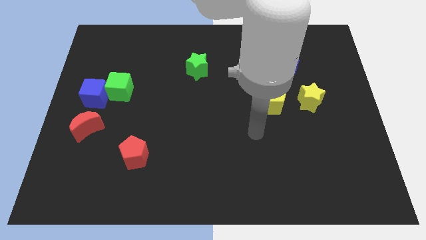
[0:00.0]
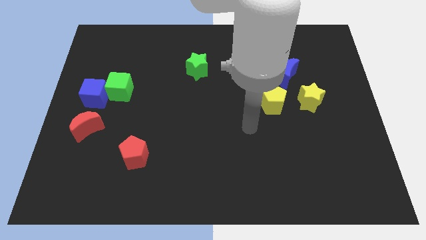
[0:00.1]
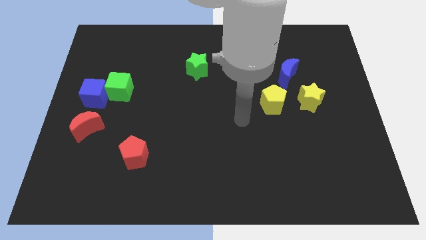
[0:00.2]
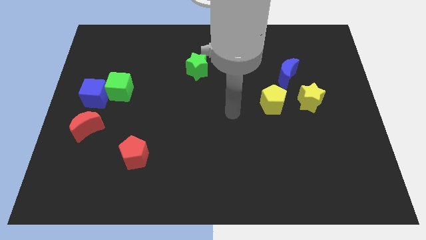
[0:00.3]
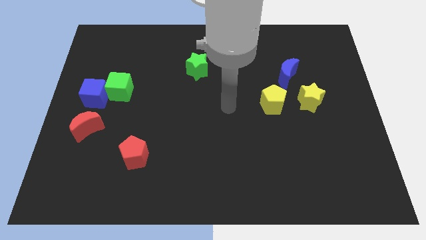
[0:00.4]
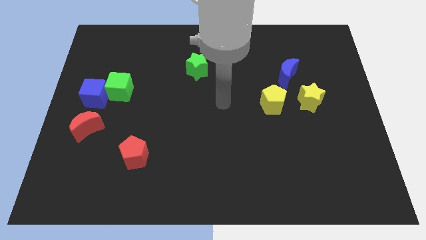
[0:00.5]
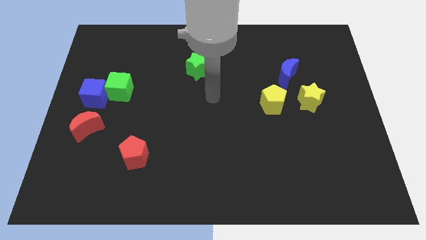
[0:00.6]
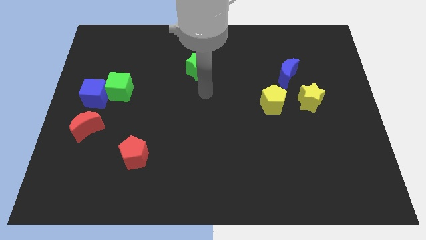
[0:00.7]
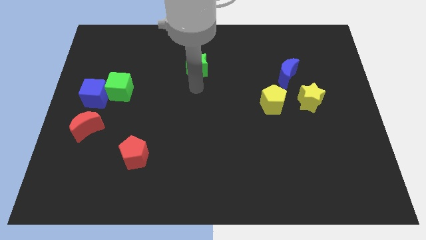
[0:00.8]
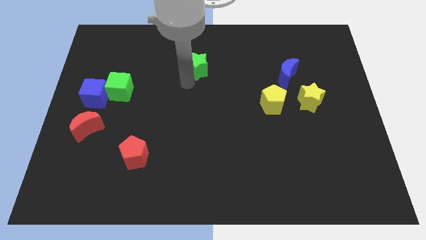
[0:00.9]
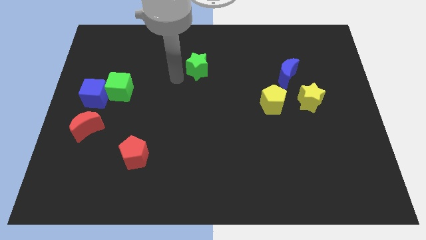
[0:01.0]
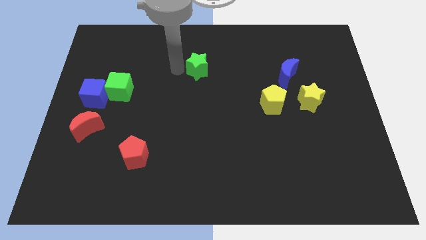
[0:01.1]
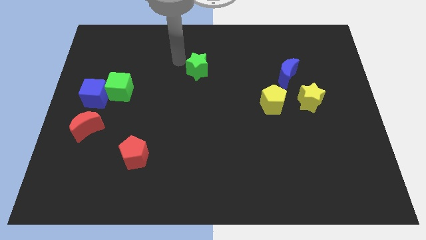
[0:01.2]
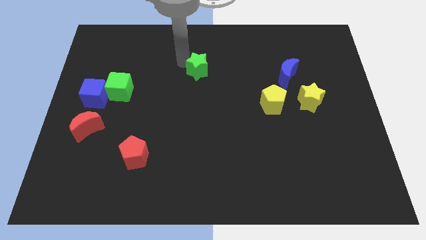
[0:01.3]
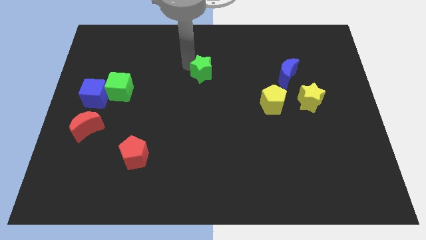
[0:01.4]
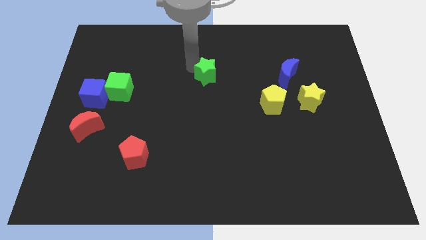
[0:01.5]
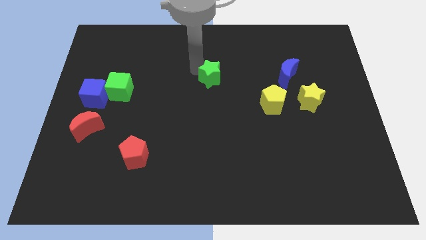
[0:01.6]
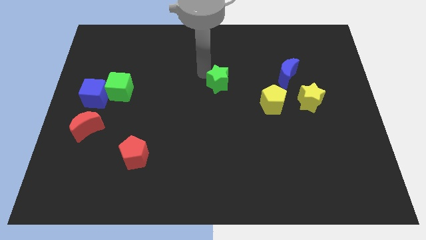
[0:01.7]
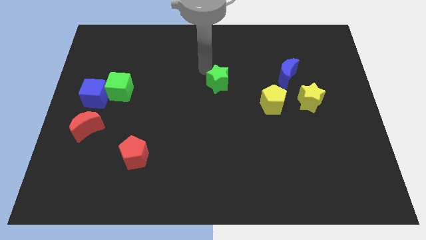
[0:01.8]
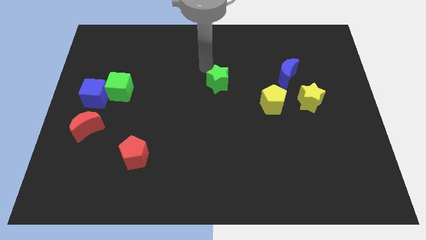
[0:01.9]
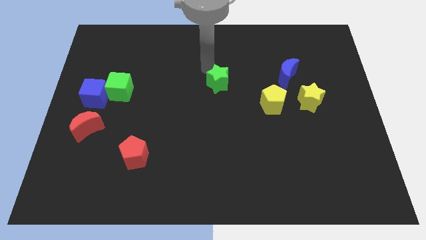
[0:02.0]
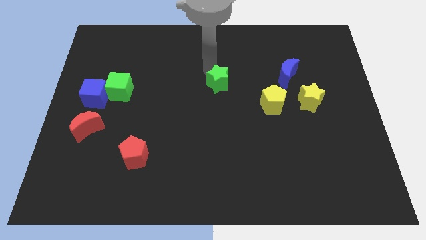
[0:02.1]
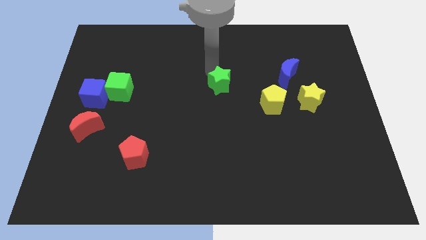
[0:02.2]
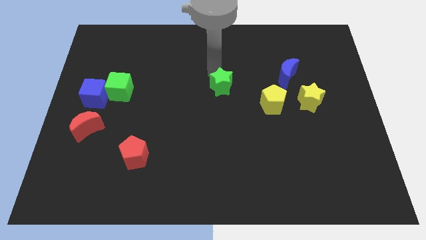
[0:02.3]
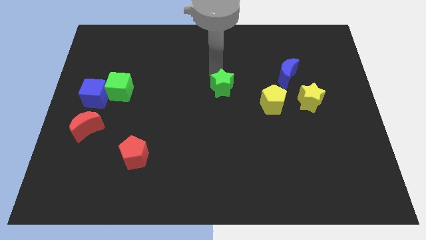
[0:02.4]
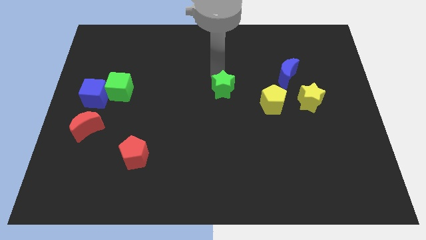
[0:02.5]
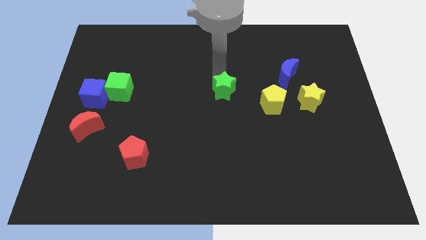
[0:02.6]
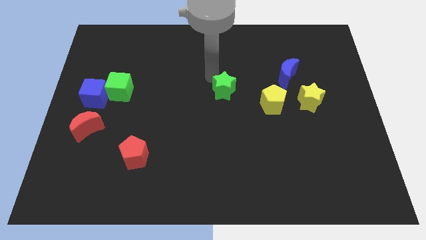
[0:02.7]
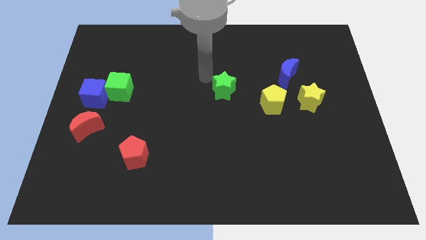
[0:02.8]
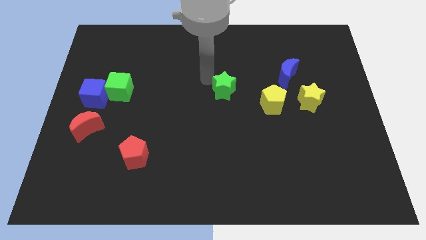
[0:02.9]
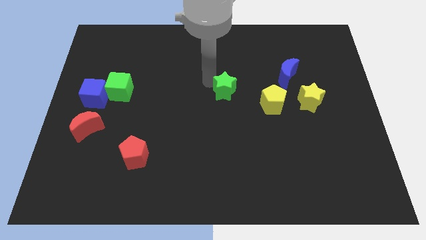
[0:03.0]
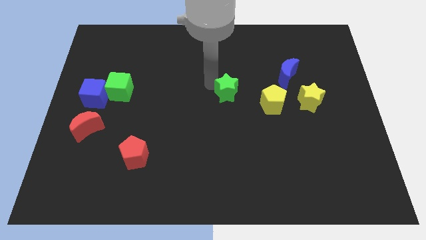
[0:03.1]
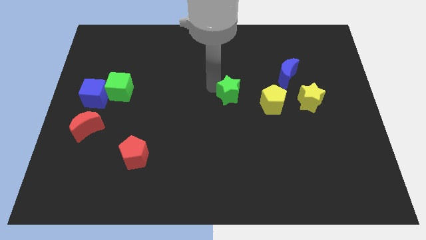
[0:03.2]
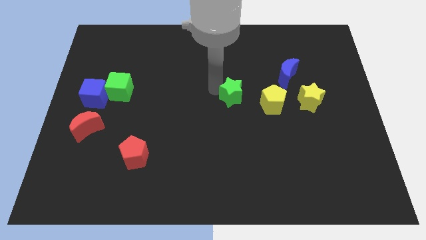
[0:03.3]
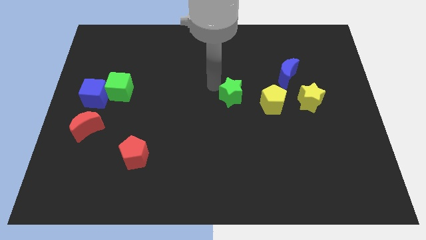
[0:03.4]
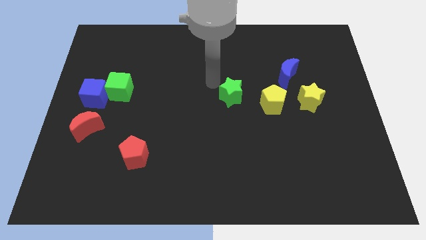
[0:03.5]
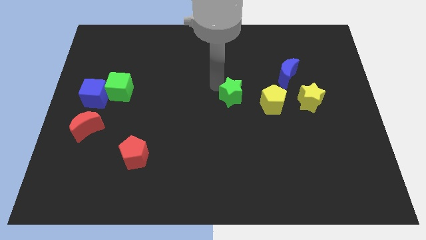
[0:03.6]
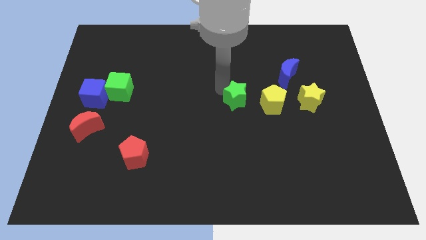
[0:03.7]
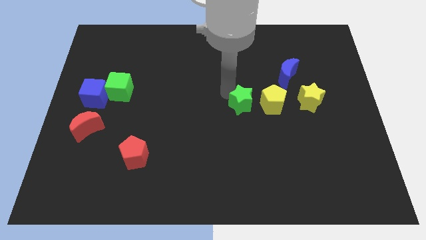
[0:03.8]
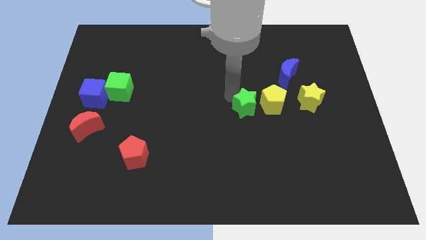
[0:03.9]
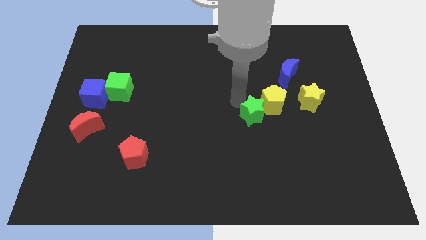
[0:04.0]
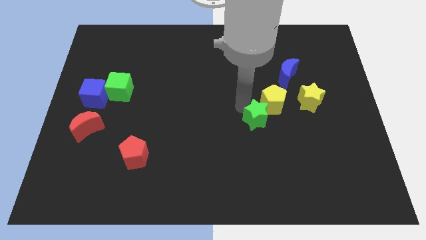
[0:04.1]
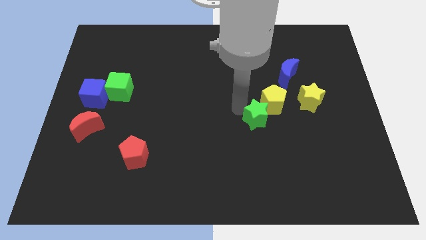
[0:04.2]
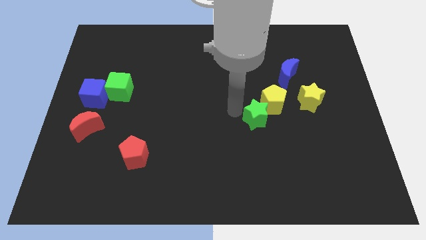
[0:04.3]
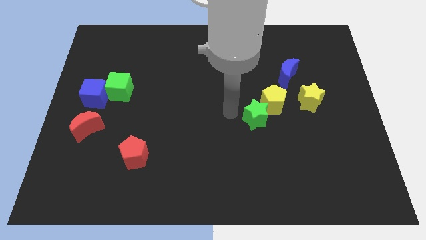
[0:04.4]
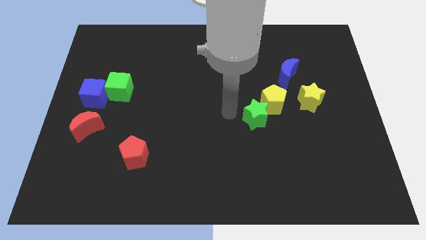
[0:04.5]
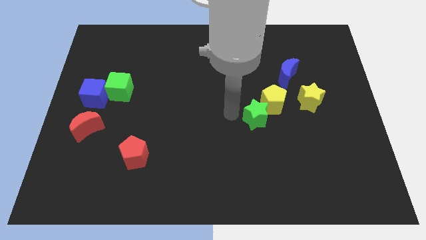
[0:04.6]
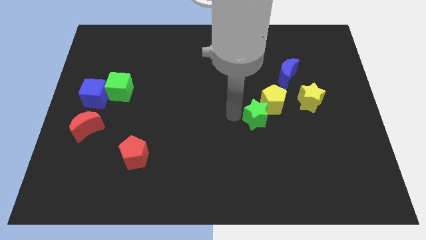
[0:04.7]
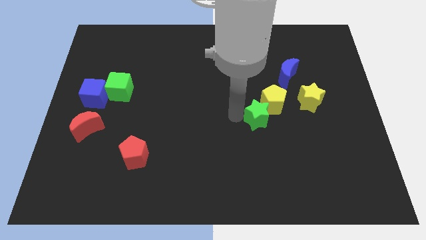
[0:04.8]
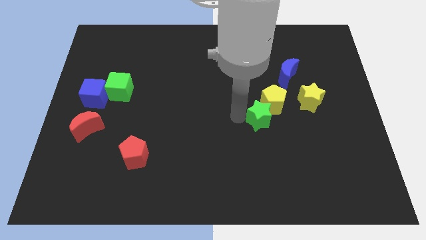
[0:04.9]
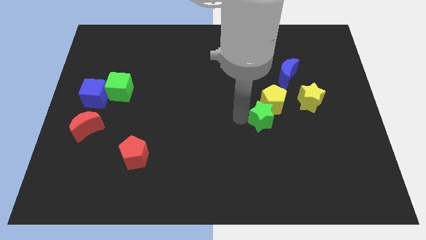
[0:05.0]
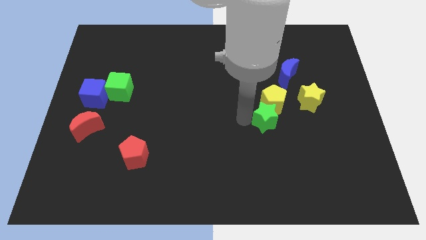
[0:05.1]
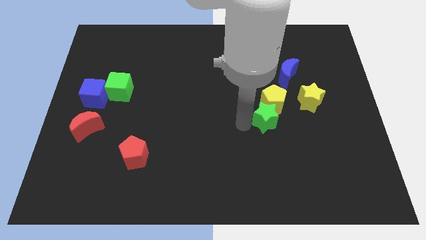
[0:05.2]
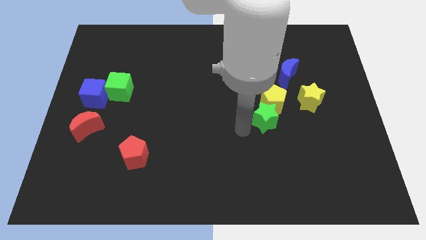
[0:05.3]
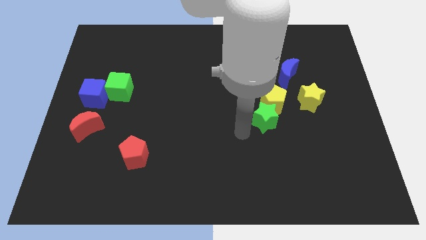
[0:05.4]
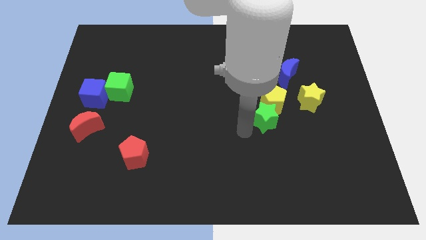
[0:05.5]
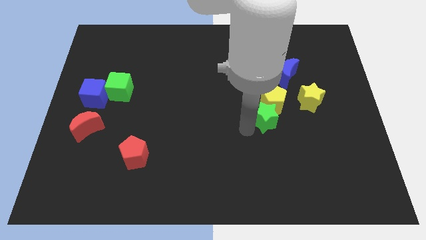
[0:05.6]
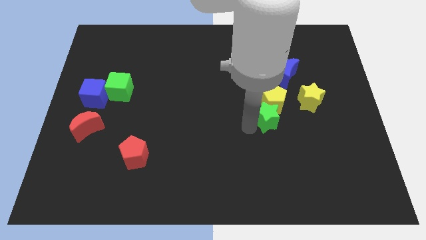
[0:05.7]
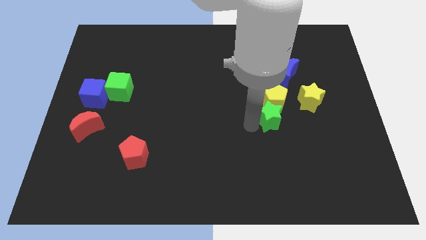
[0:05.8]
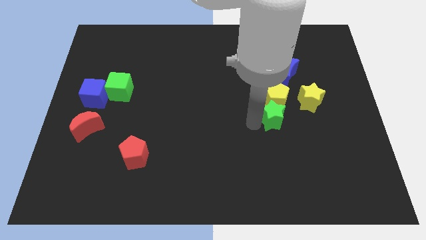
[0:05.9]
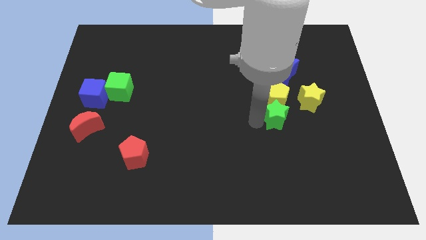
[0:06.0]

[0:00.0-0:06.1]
move the green star below the blue moon

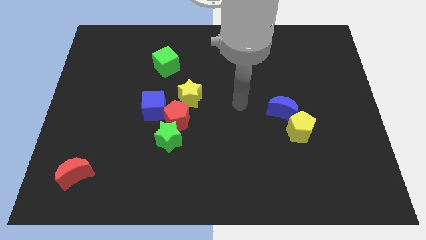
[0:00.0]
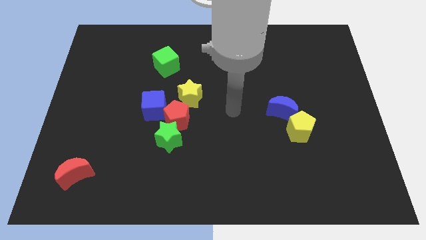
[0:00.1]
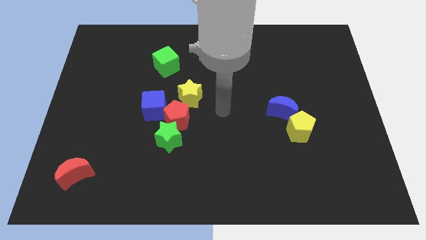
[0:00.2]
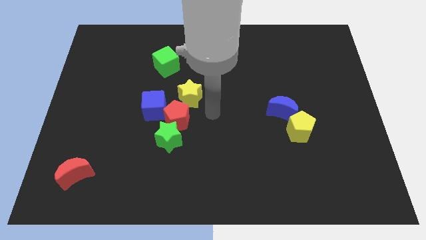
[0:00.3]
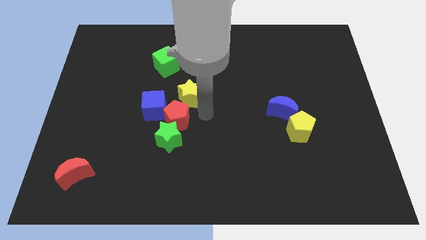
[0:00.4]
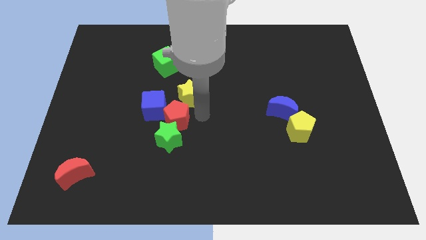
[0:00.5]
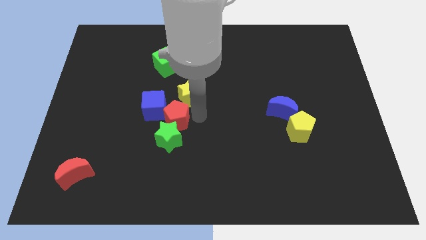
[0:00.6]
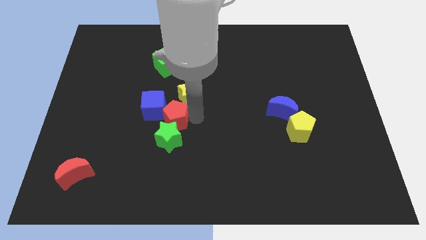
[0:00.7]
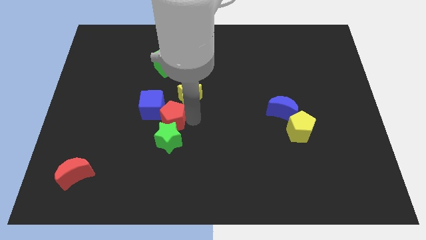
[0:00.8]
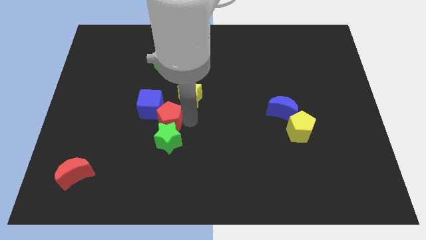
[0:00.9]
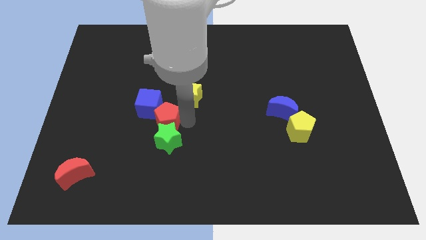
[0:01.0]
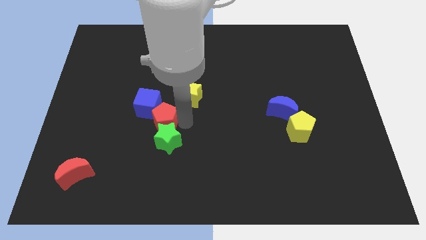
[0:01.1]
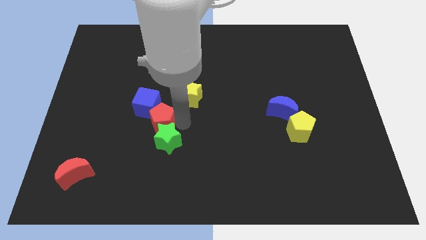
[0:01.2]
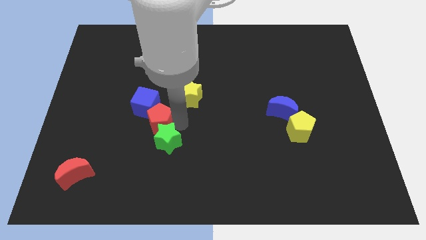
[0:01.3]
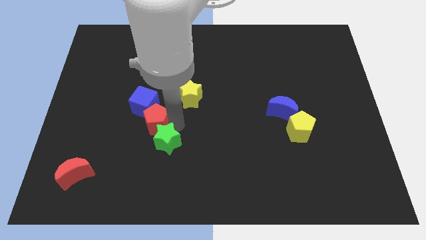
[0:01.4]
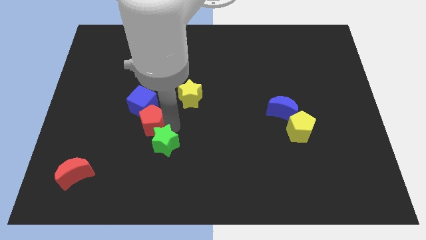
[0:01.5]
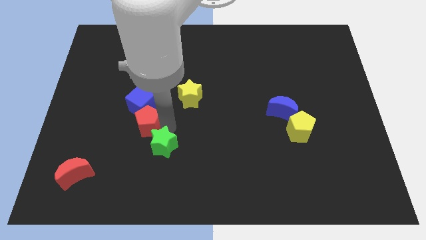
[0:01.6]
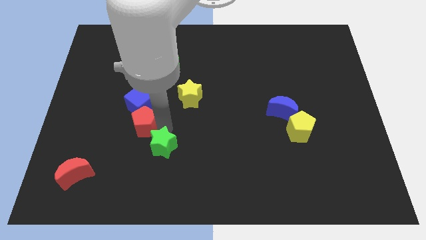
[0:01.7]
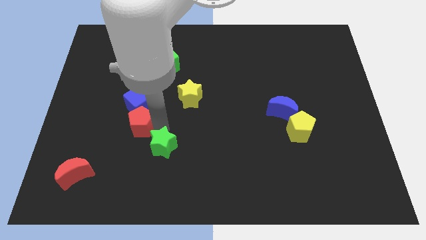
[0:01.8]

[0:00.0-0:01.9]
move the red pentagon to the bottom left side of the blue cube
